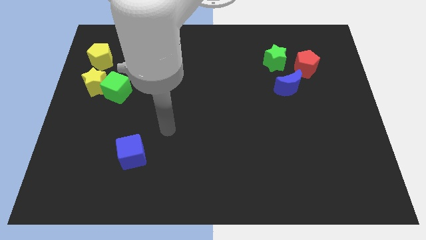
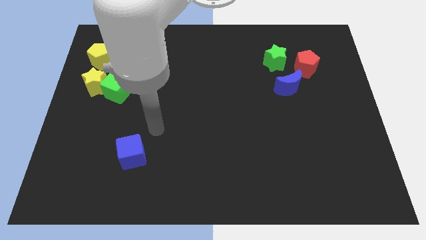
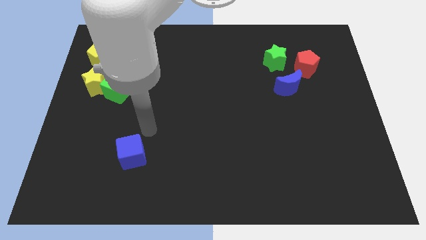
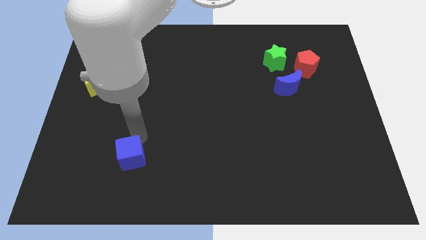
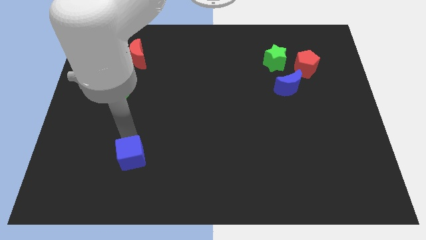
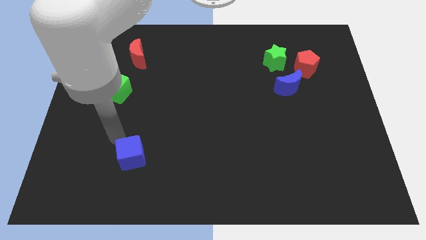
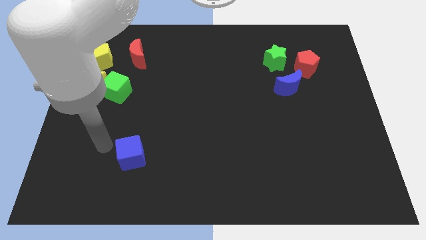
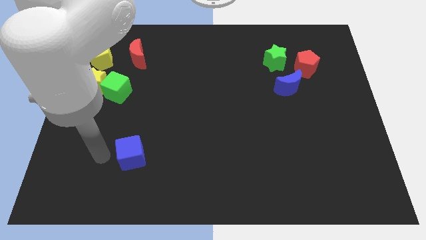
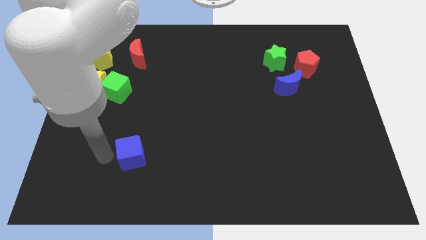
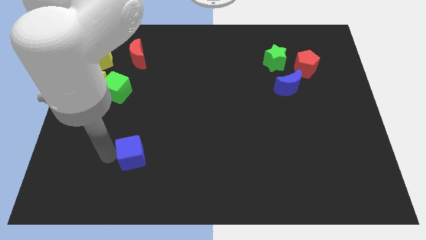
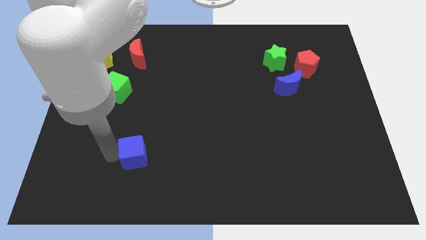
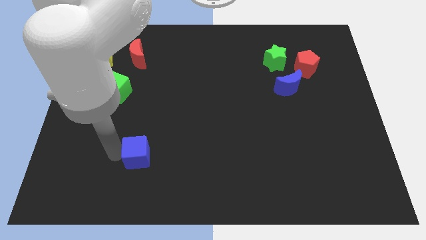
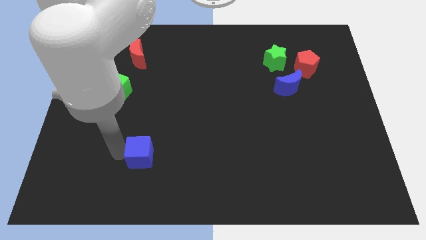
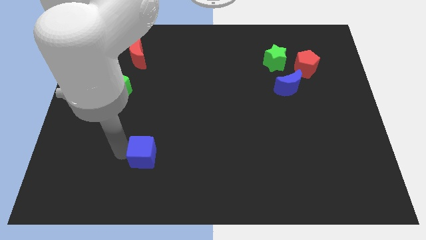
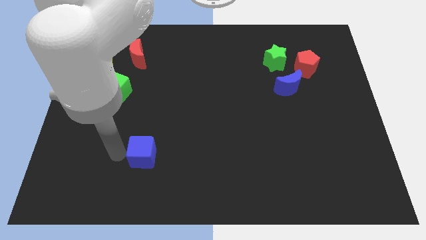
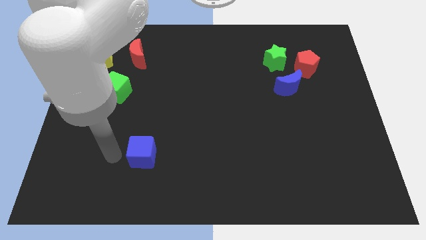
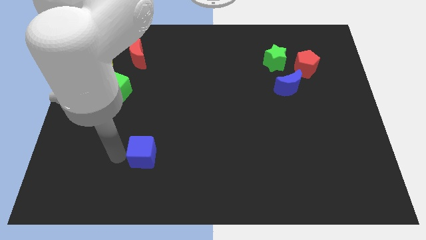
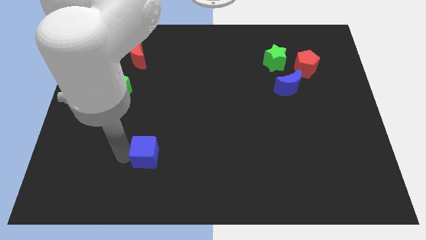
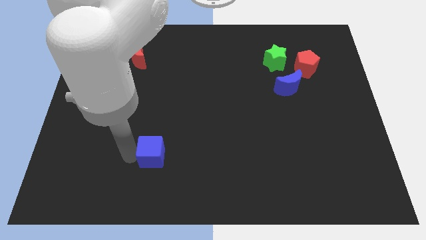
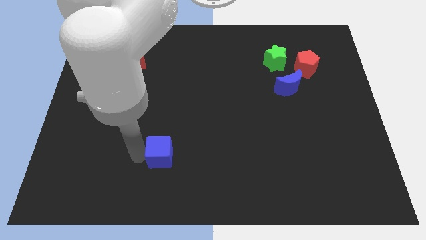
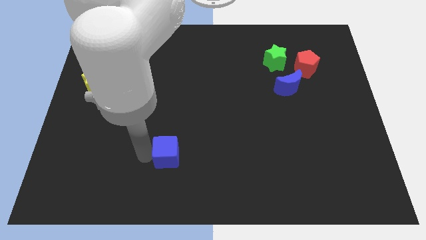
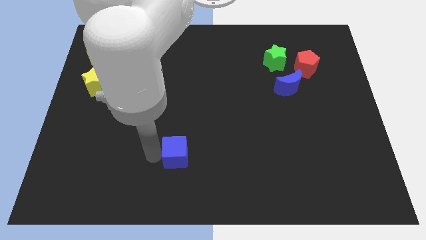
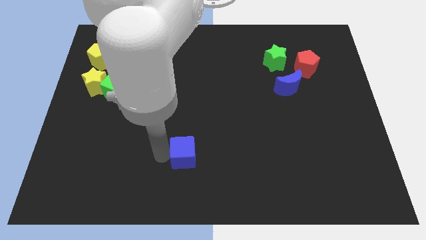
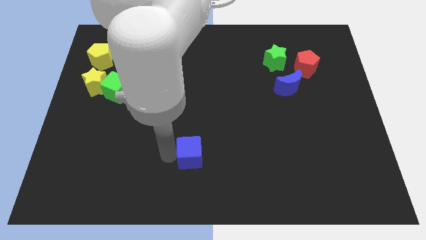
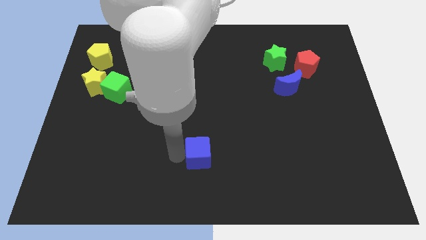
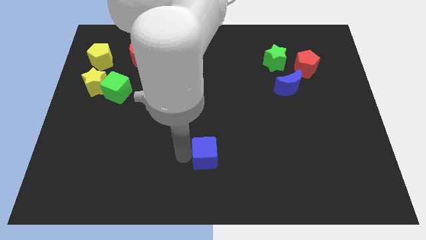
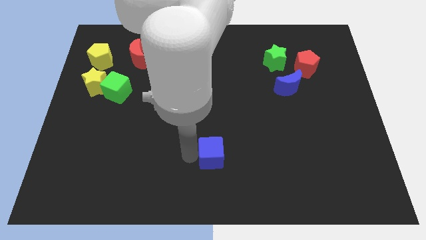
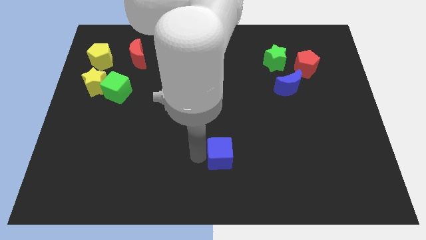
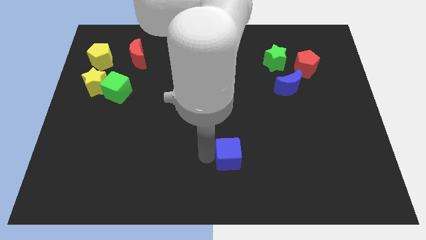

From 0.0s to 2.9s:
push the blue cube to the right

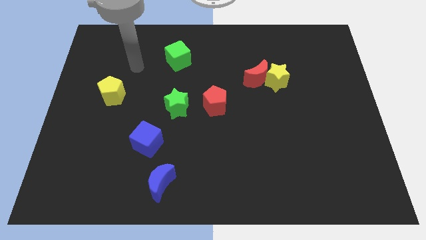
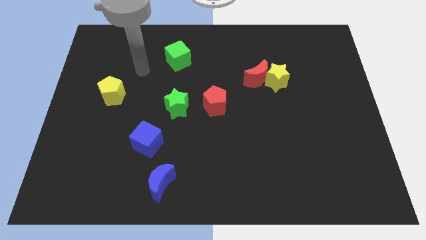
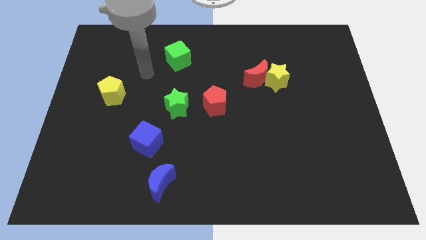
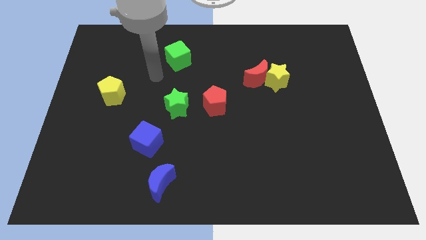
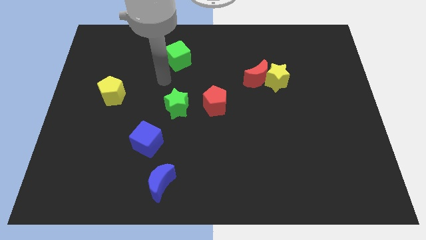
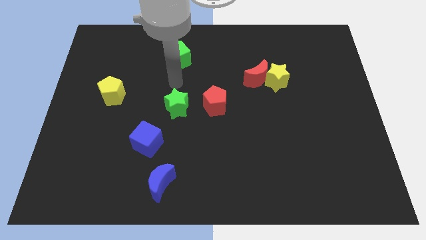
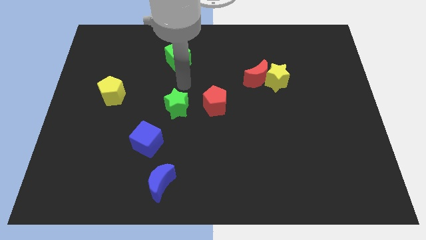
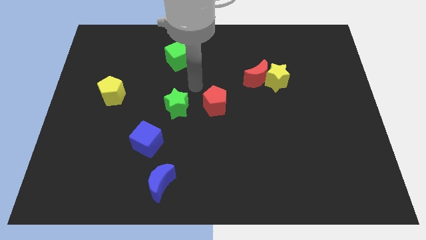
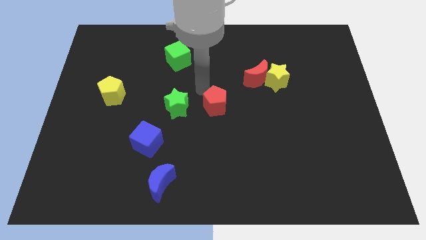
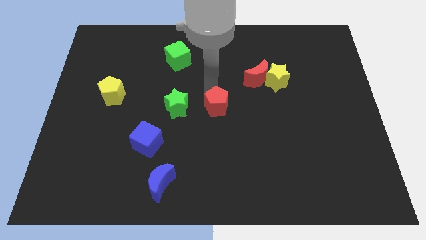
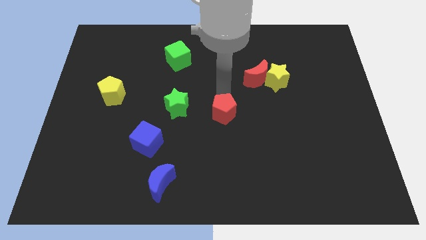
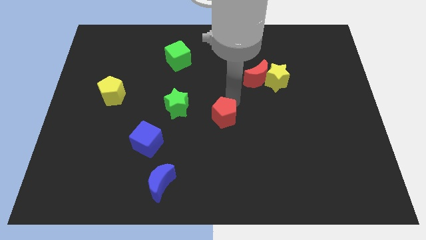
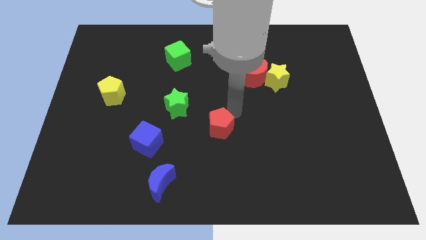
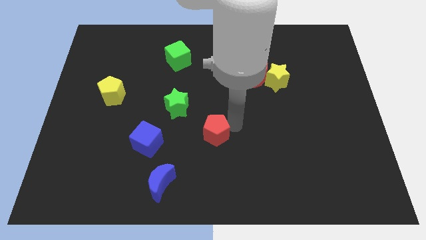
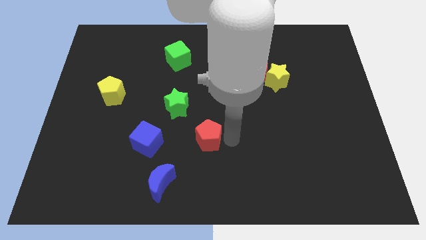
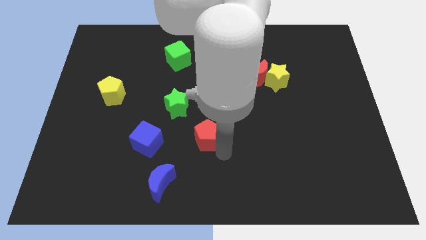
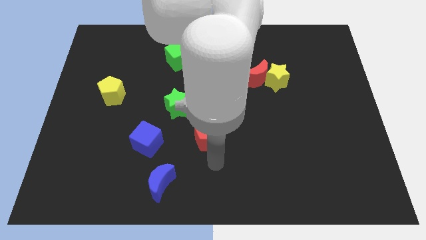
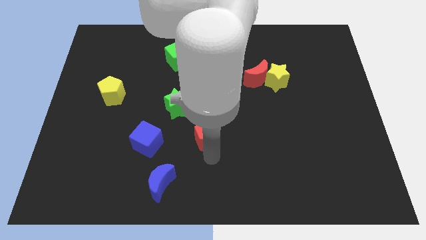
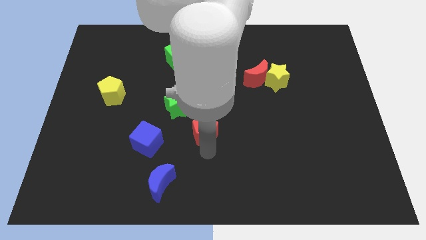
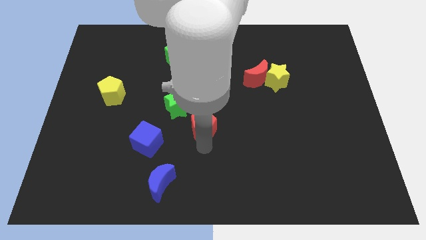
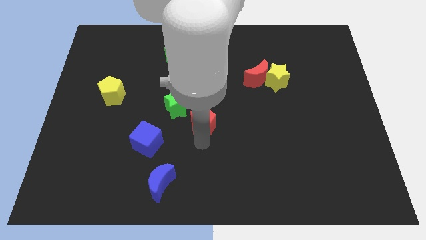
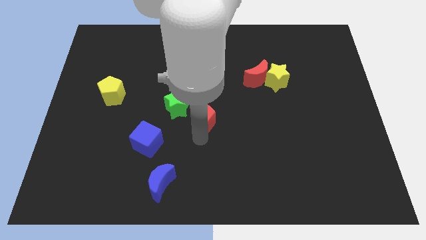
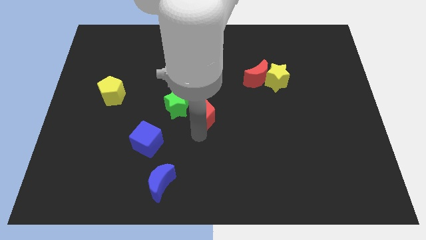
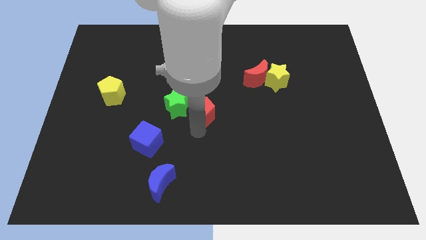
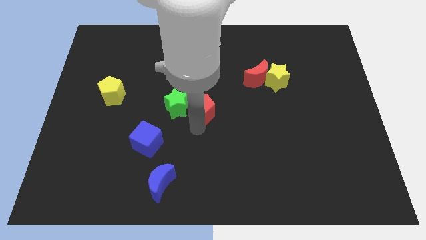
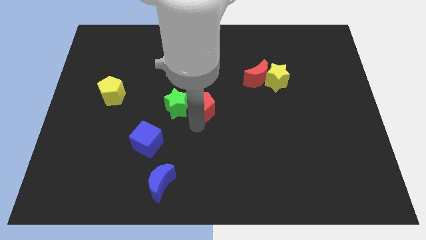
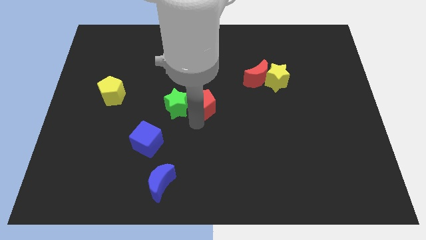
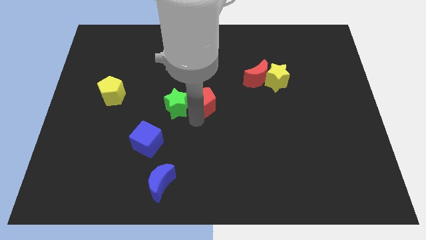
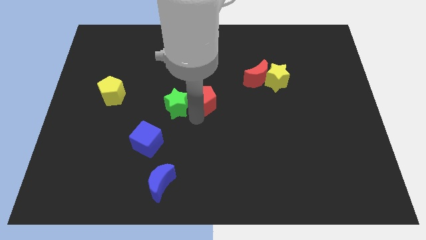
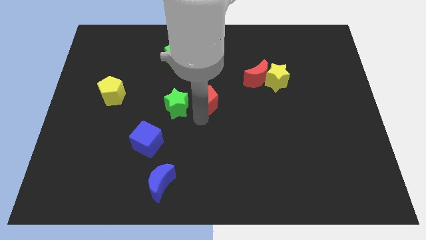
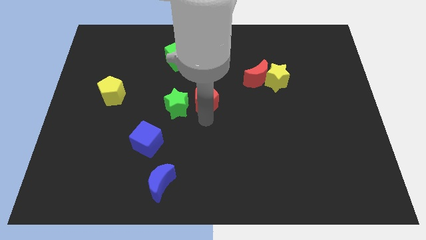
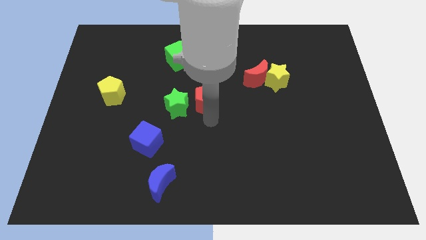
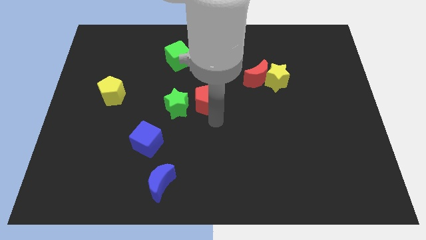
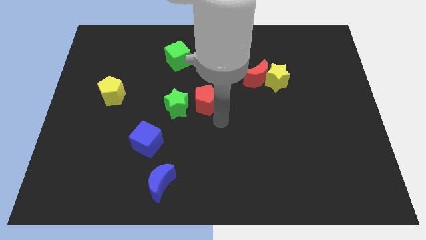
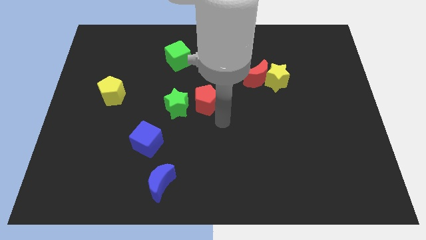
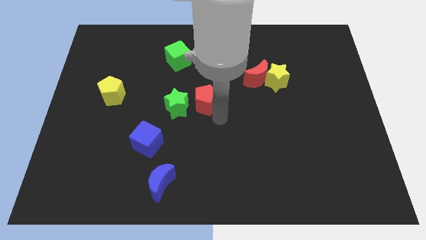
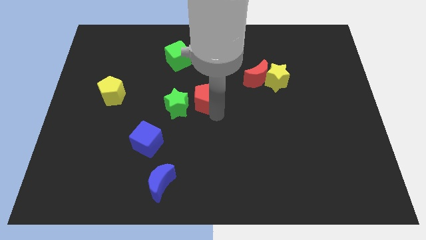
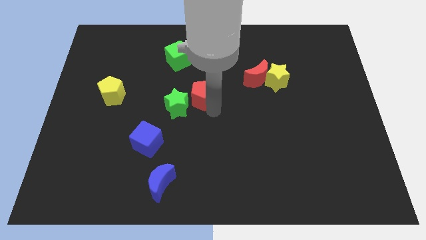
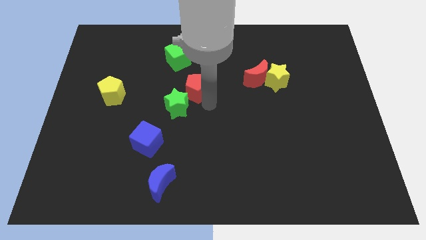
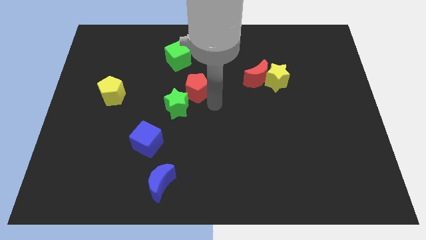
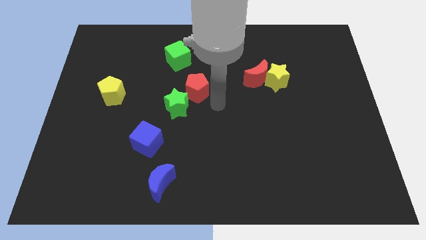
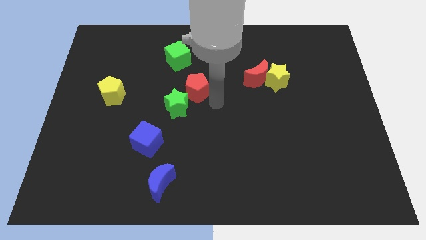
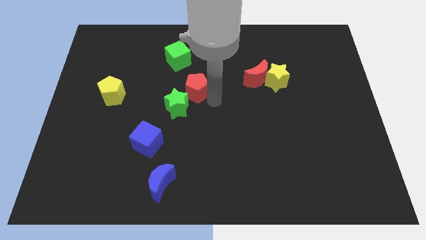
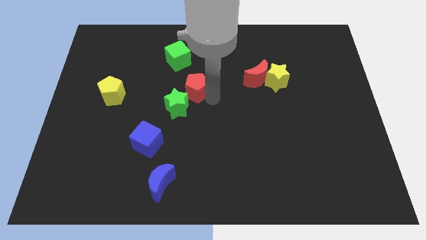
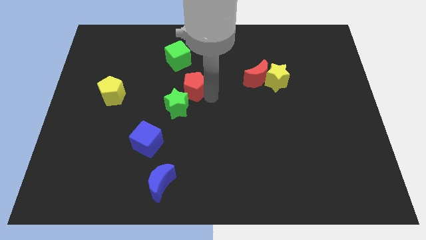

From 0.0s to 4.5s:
slide the red pentagon slightly up and left diagonally

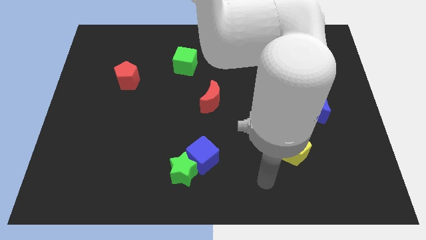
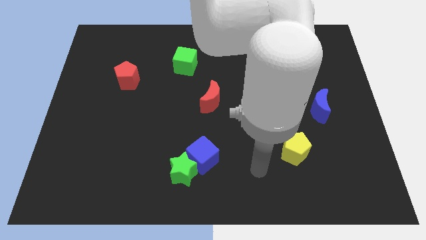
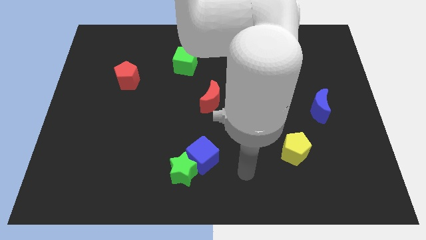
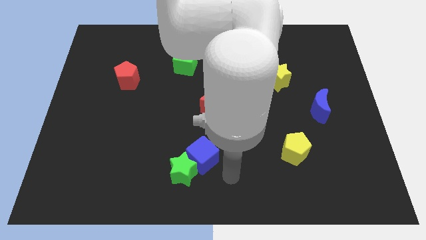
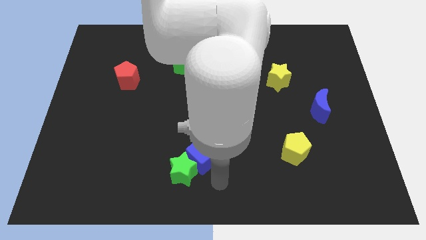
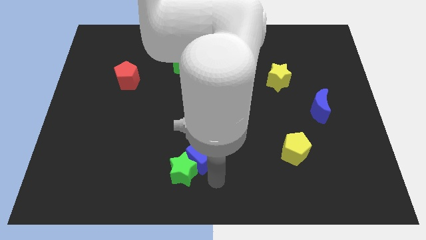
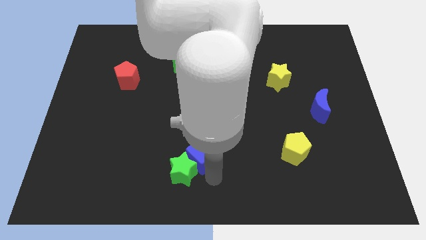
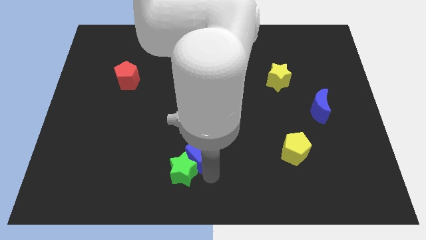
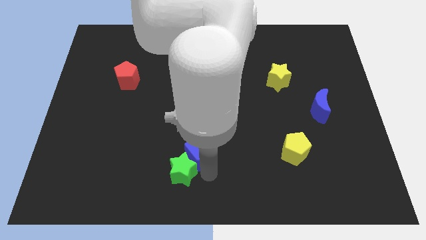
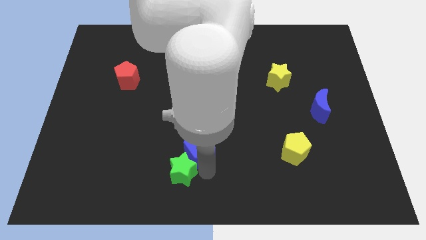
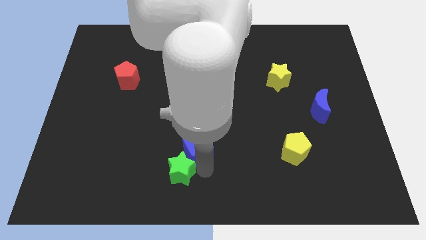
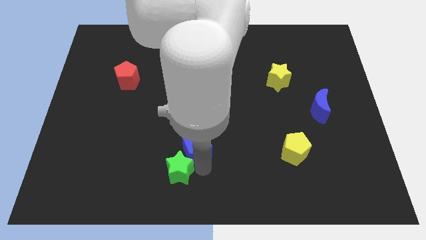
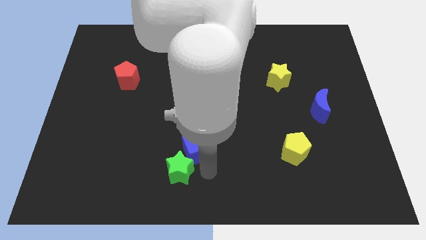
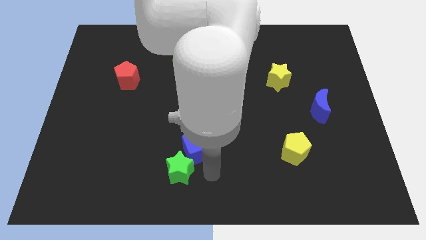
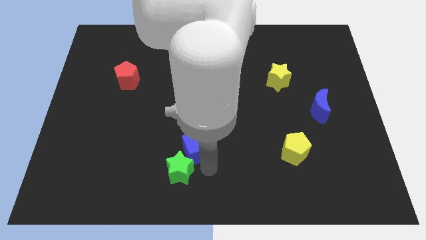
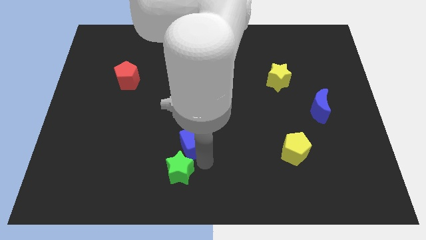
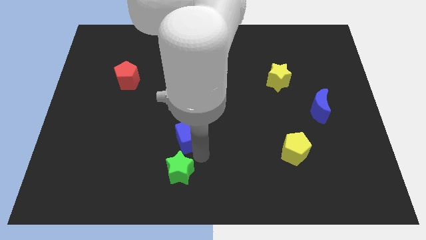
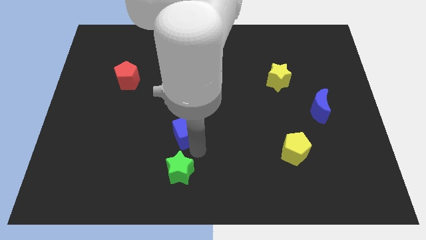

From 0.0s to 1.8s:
push the blue cube a little upwards and to the left
